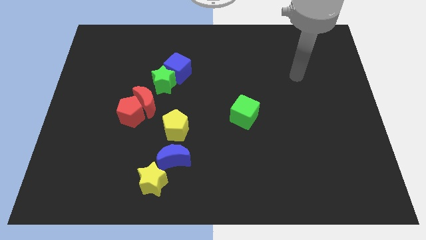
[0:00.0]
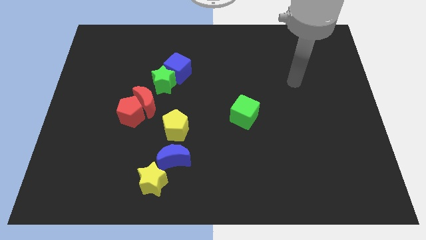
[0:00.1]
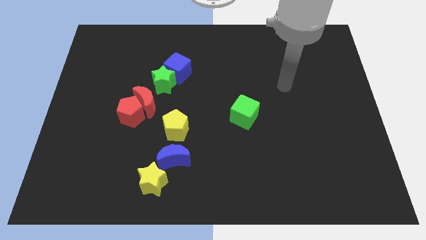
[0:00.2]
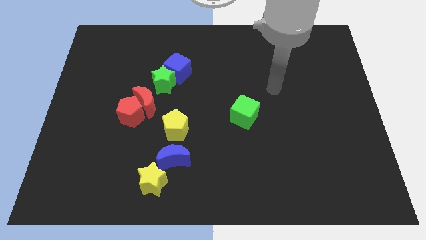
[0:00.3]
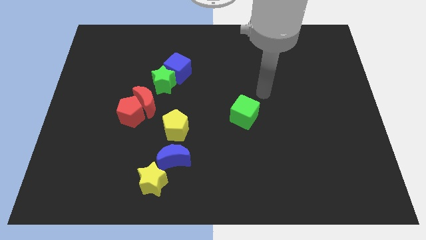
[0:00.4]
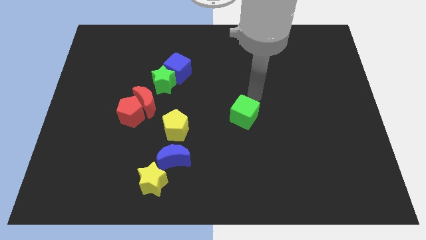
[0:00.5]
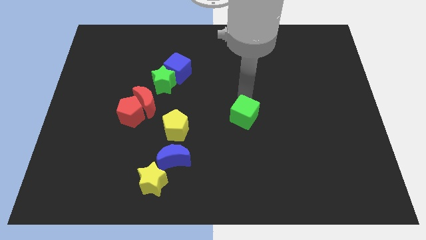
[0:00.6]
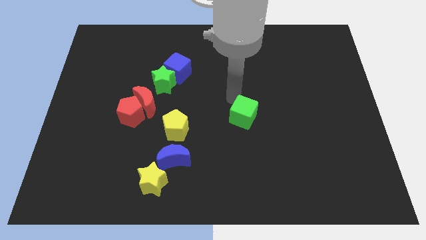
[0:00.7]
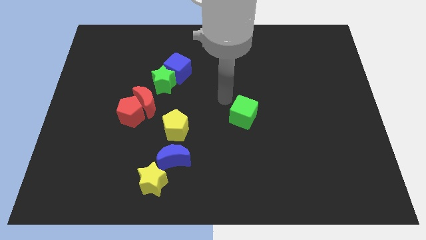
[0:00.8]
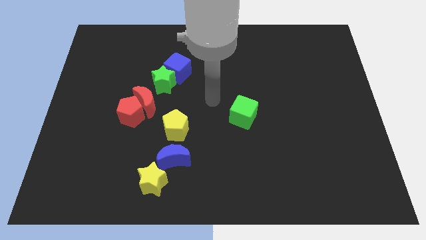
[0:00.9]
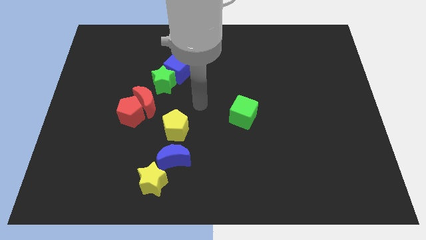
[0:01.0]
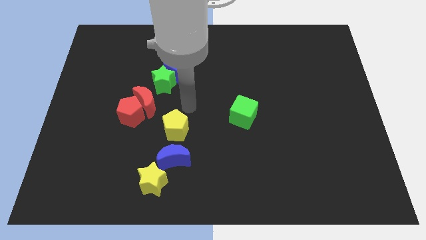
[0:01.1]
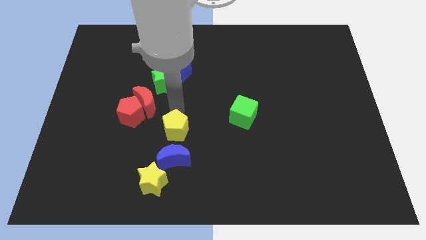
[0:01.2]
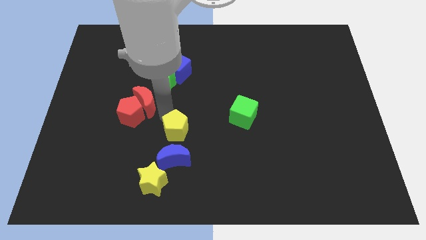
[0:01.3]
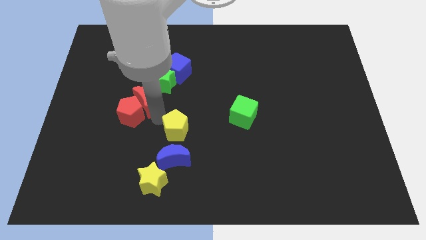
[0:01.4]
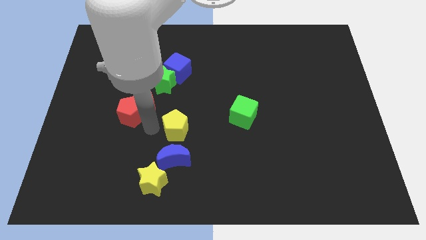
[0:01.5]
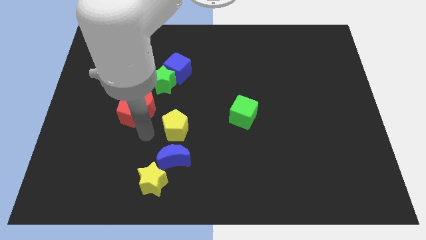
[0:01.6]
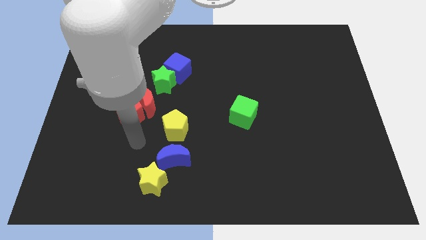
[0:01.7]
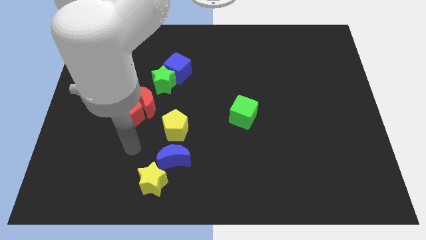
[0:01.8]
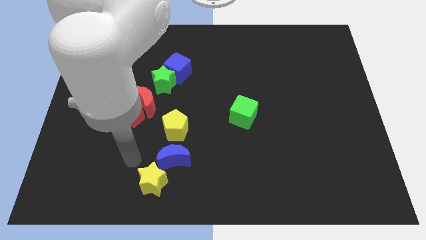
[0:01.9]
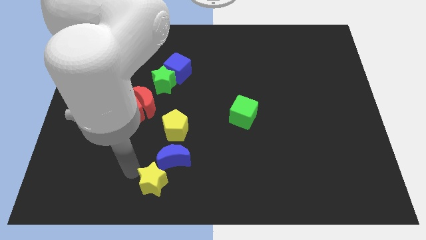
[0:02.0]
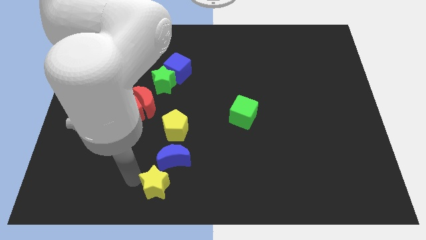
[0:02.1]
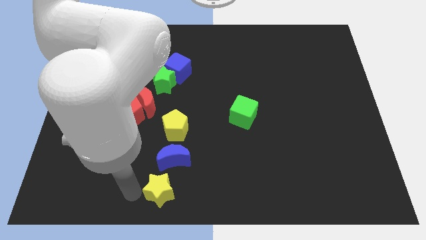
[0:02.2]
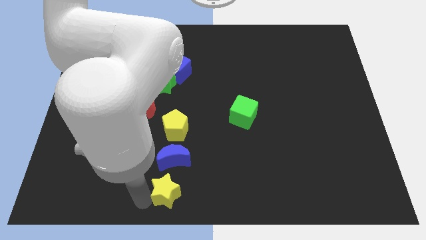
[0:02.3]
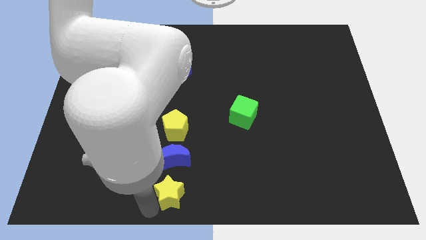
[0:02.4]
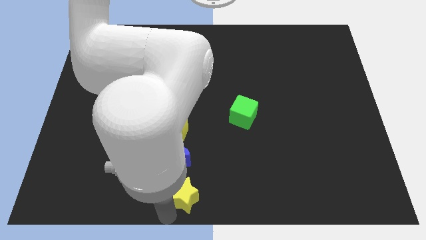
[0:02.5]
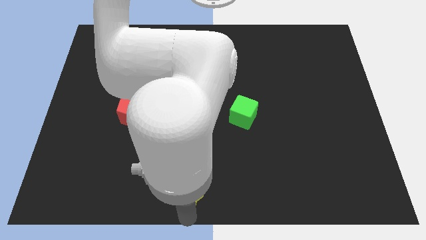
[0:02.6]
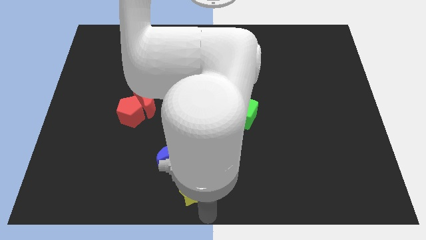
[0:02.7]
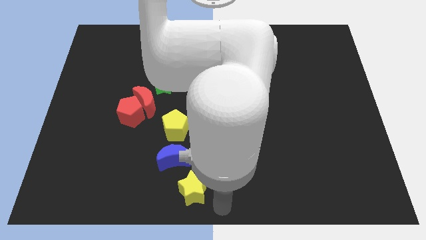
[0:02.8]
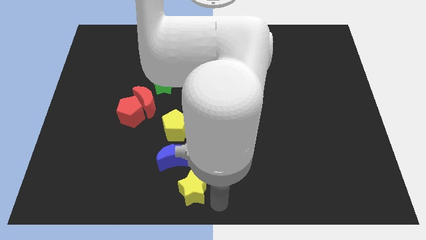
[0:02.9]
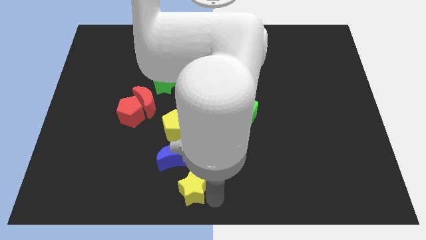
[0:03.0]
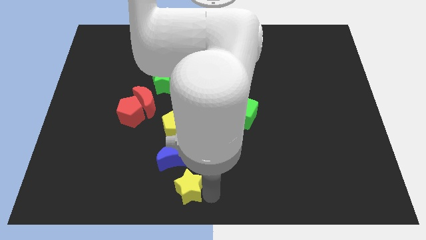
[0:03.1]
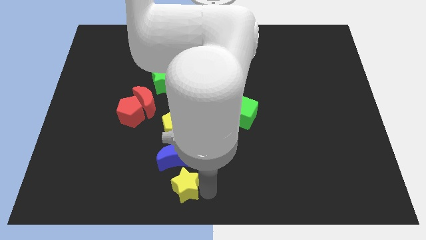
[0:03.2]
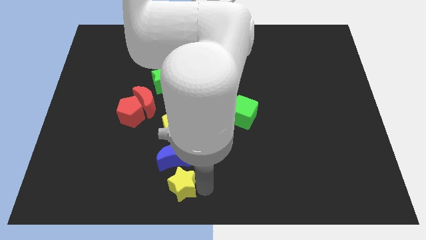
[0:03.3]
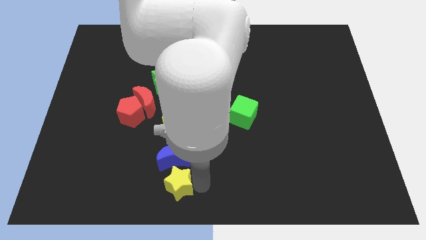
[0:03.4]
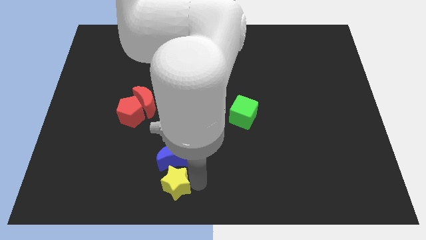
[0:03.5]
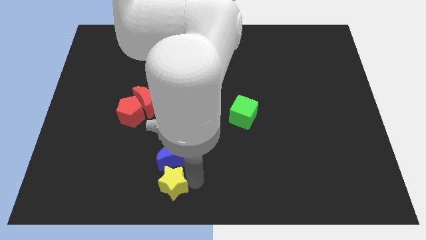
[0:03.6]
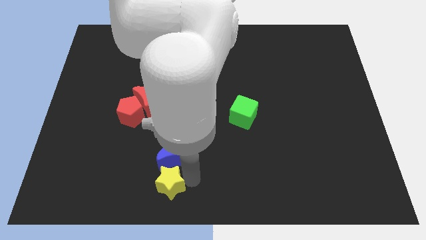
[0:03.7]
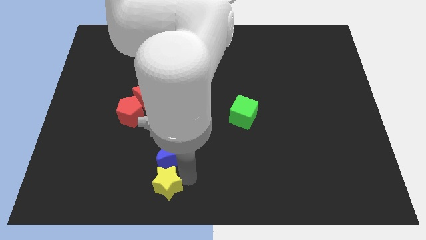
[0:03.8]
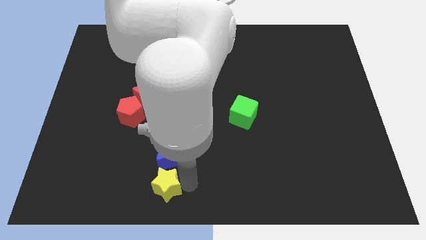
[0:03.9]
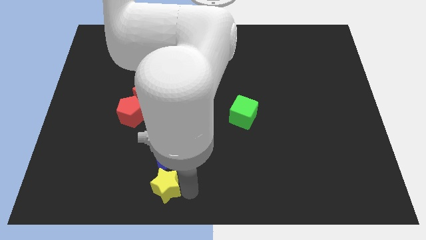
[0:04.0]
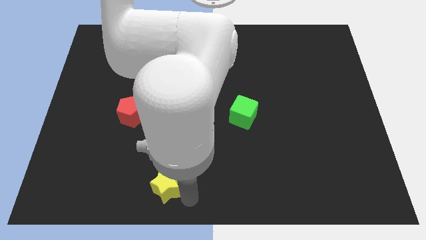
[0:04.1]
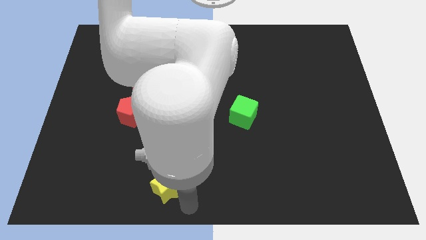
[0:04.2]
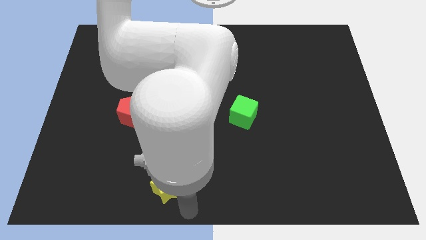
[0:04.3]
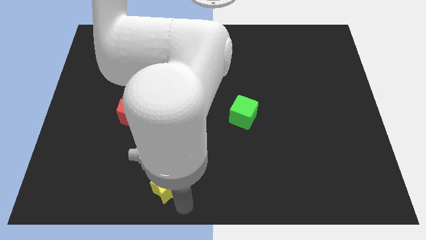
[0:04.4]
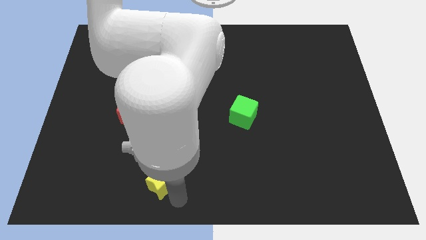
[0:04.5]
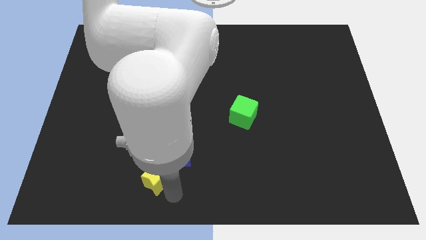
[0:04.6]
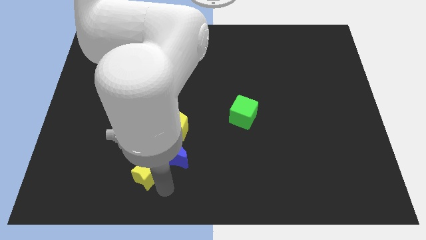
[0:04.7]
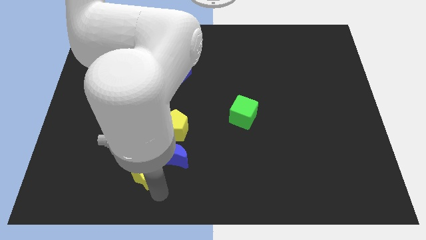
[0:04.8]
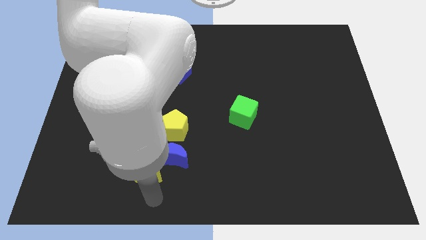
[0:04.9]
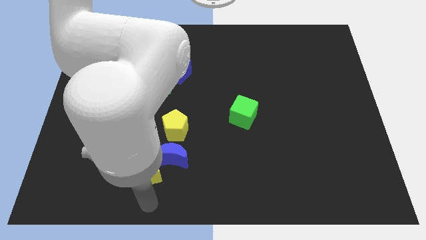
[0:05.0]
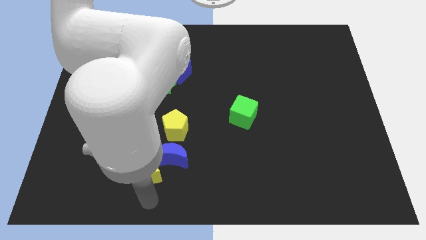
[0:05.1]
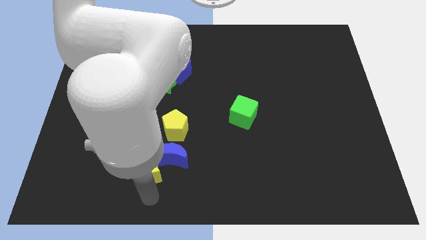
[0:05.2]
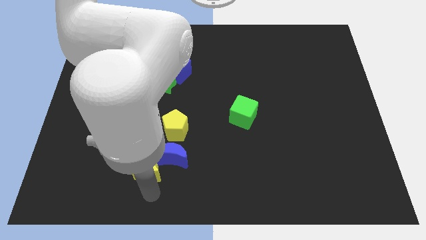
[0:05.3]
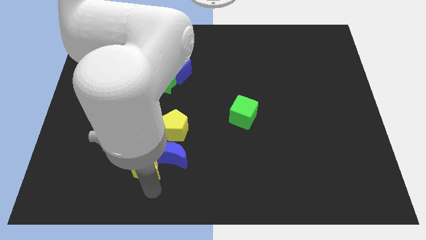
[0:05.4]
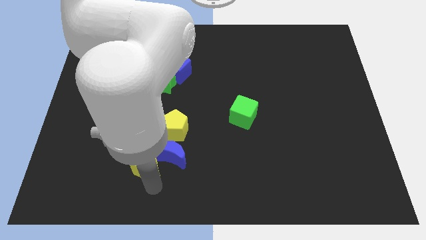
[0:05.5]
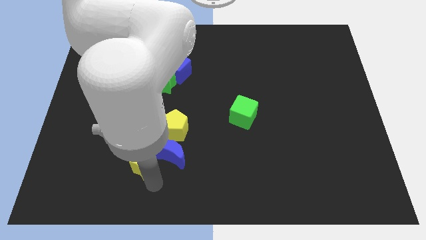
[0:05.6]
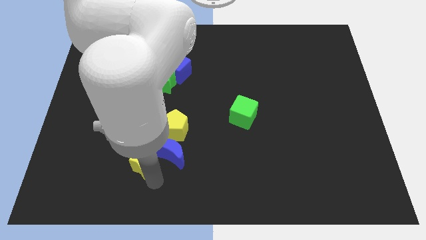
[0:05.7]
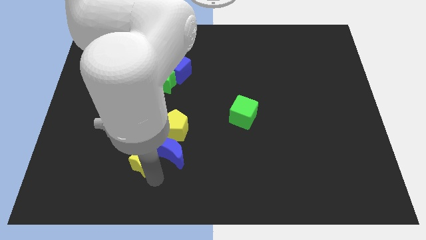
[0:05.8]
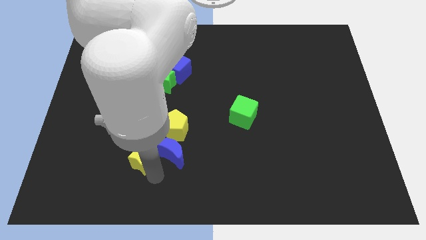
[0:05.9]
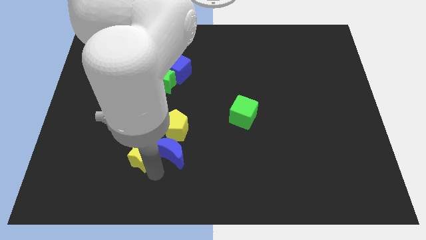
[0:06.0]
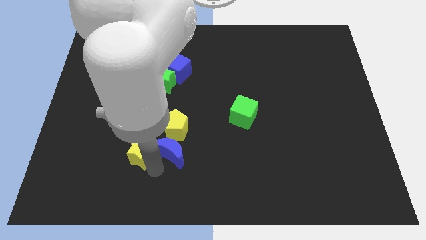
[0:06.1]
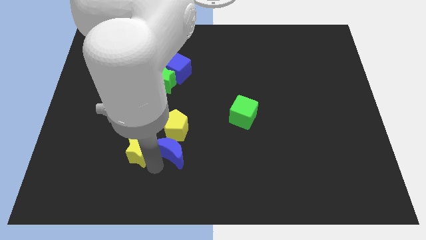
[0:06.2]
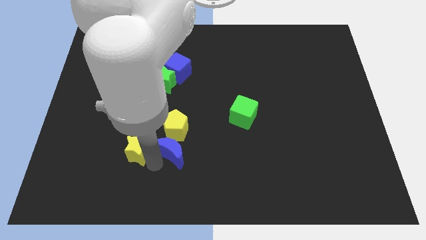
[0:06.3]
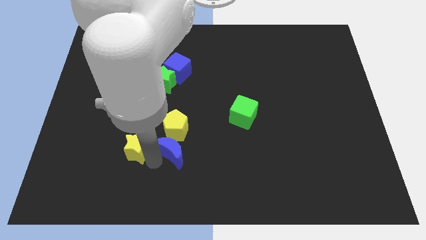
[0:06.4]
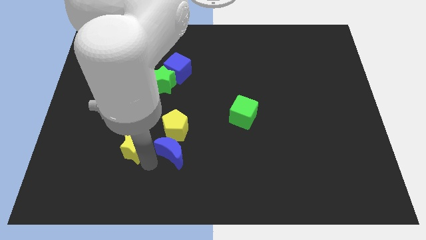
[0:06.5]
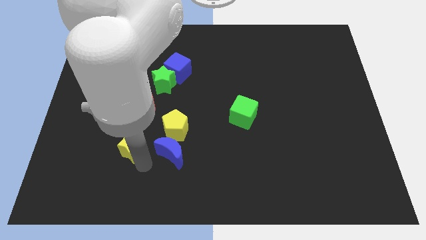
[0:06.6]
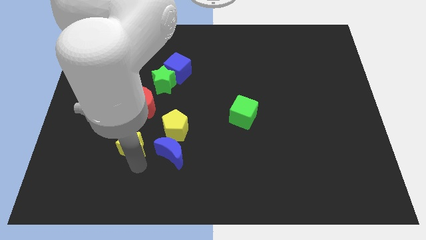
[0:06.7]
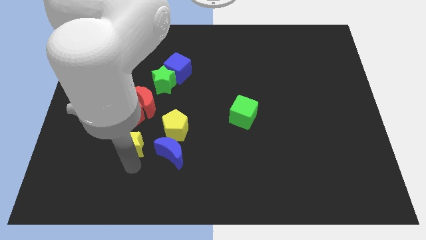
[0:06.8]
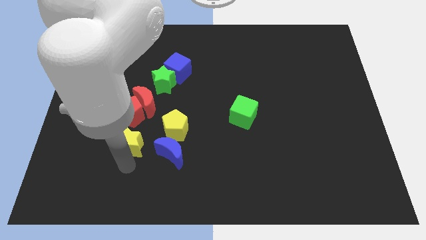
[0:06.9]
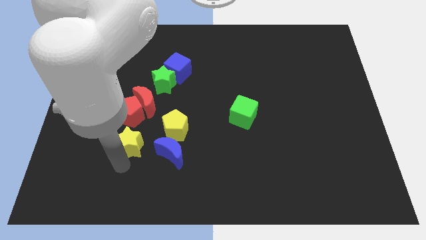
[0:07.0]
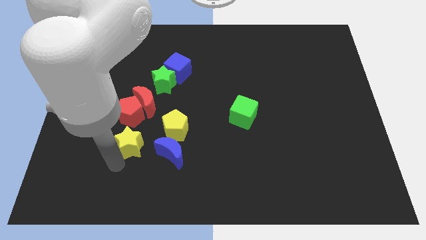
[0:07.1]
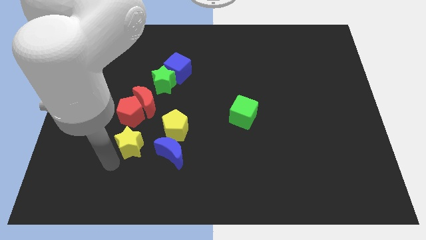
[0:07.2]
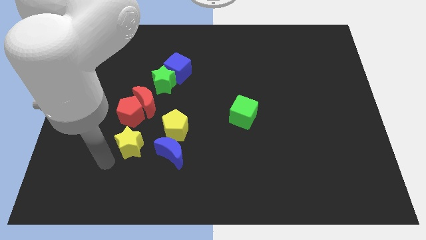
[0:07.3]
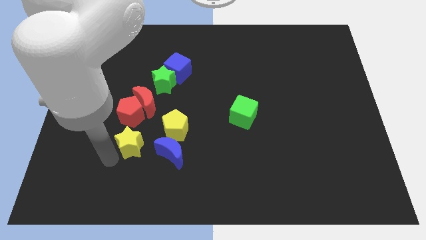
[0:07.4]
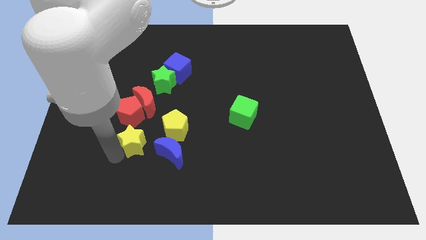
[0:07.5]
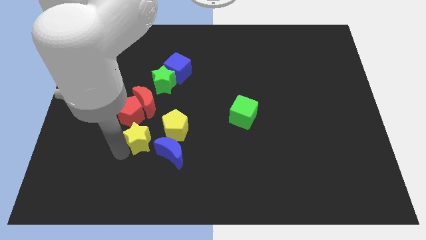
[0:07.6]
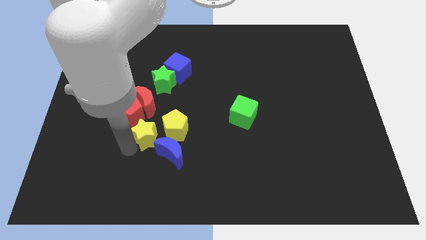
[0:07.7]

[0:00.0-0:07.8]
move the yellow star to the bottom side of the green star
